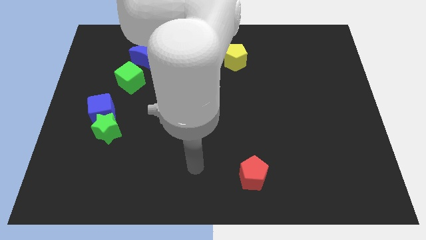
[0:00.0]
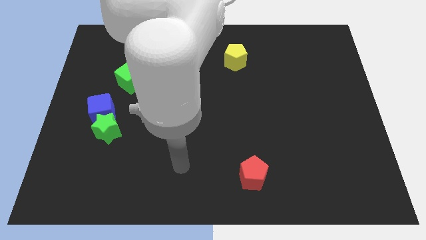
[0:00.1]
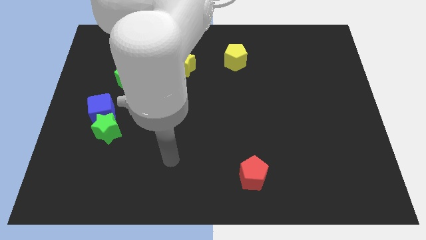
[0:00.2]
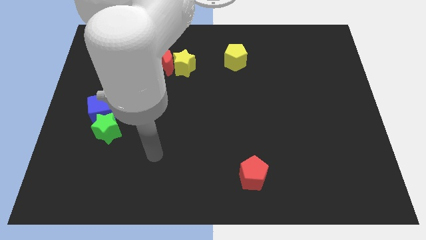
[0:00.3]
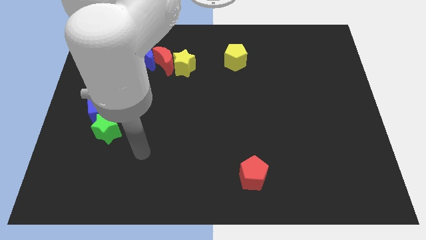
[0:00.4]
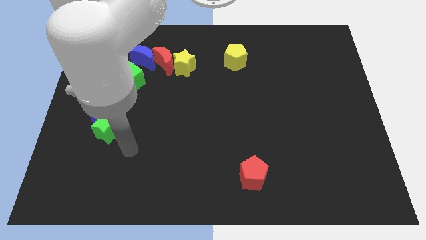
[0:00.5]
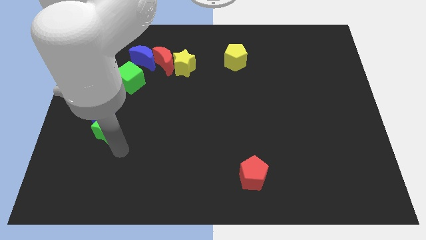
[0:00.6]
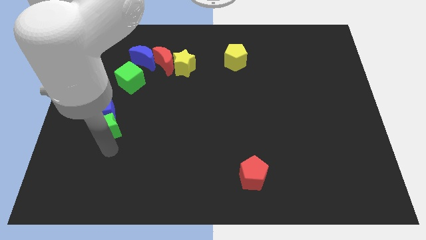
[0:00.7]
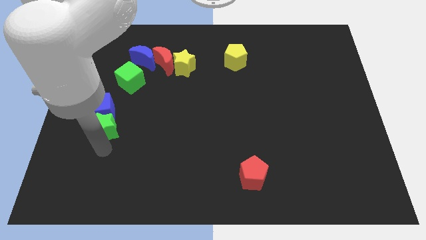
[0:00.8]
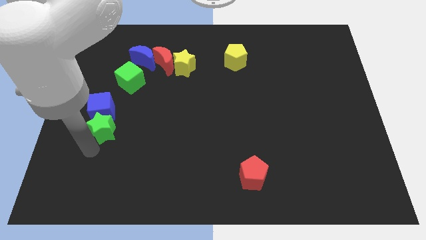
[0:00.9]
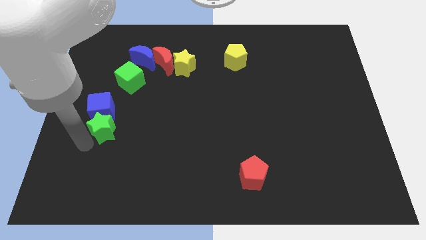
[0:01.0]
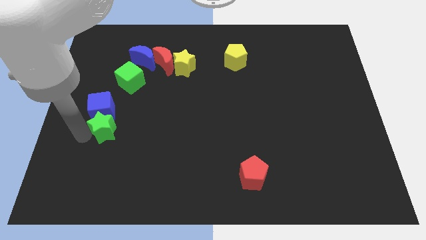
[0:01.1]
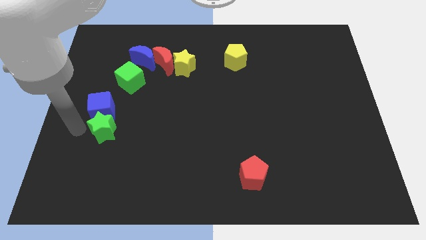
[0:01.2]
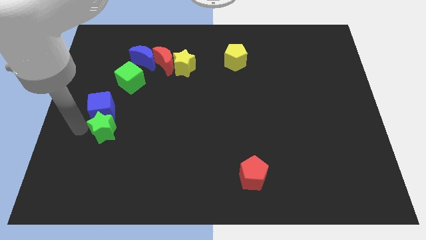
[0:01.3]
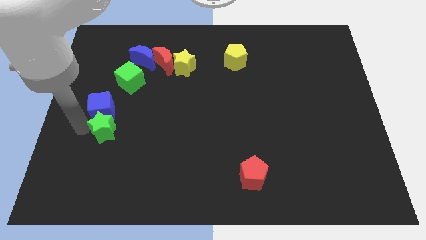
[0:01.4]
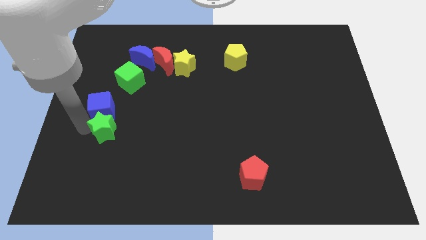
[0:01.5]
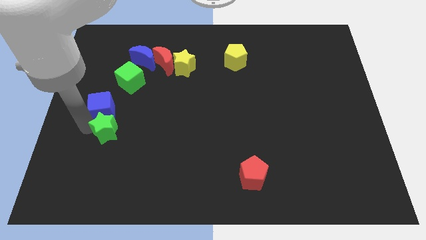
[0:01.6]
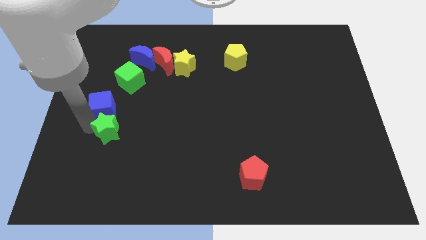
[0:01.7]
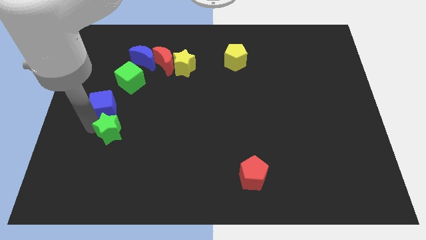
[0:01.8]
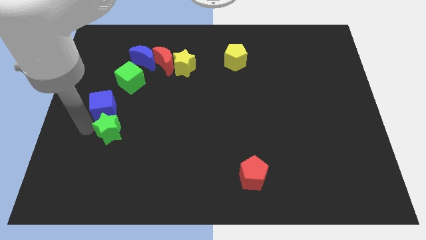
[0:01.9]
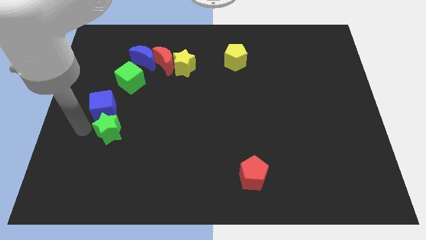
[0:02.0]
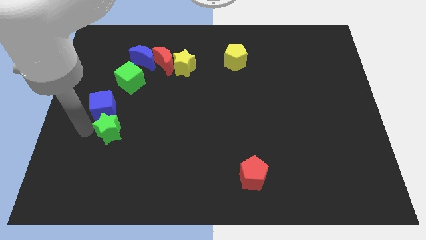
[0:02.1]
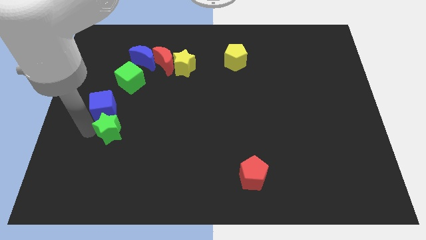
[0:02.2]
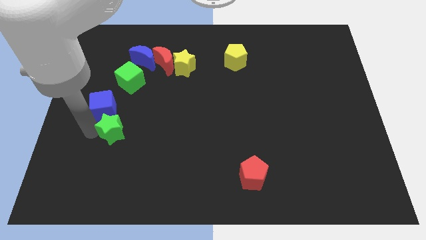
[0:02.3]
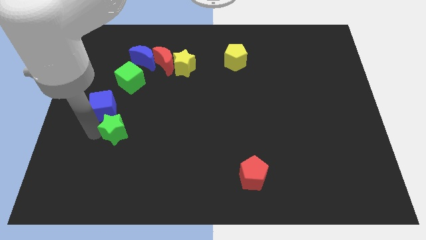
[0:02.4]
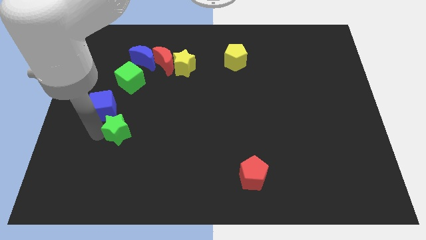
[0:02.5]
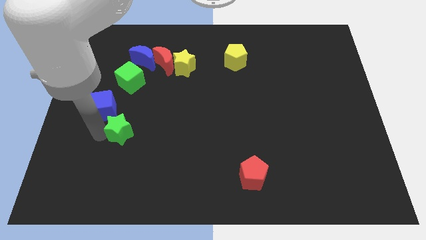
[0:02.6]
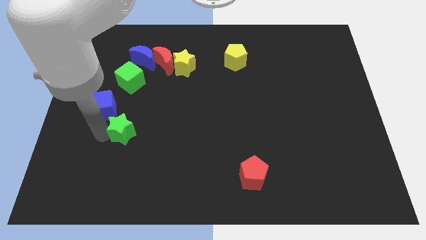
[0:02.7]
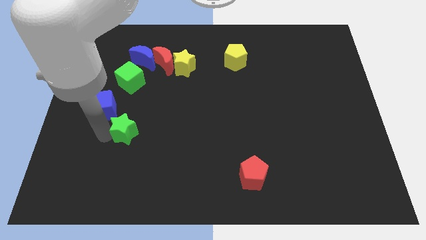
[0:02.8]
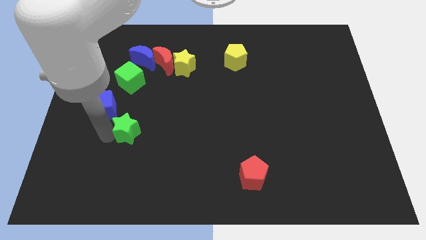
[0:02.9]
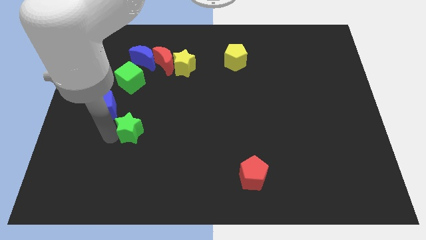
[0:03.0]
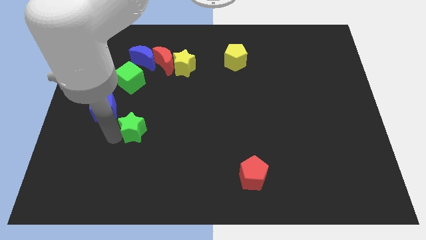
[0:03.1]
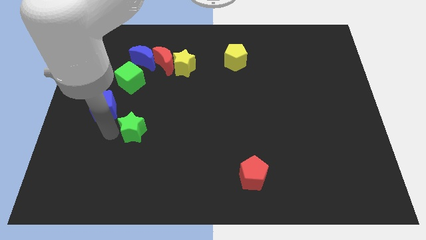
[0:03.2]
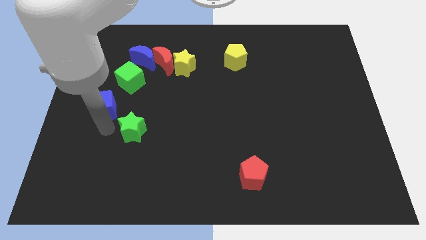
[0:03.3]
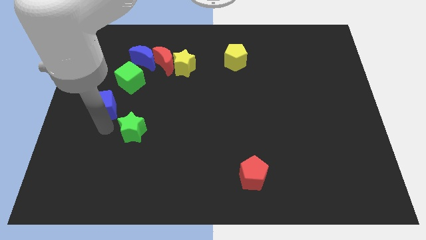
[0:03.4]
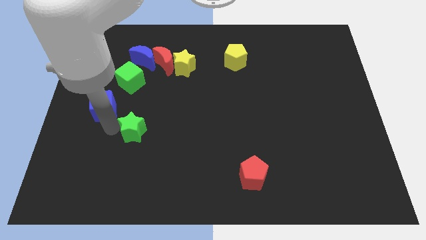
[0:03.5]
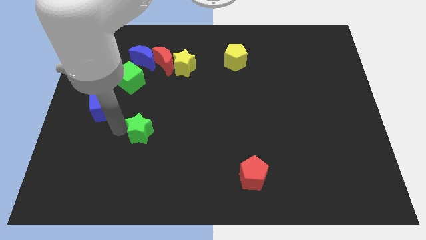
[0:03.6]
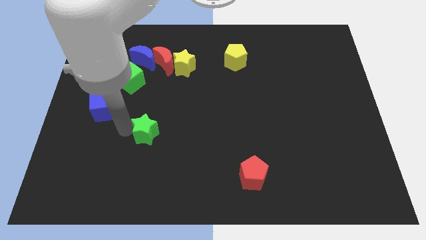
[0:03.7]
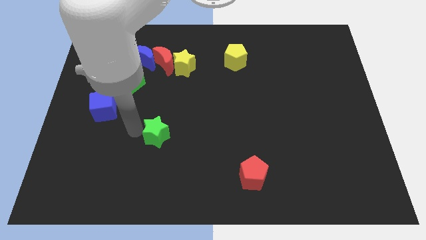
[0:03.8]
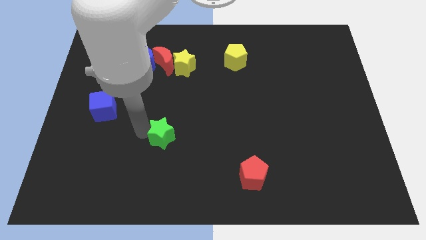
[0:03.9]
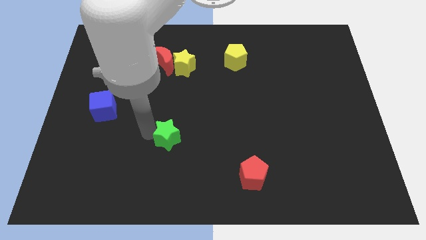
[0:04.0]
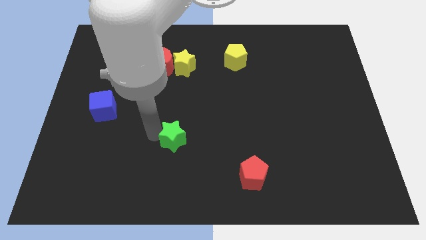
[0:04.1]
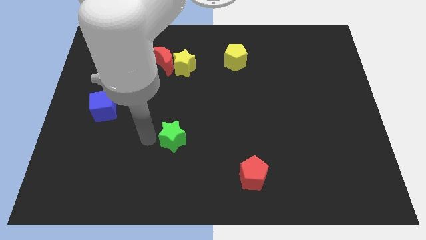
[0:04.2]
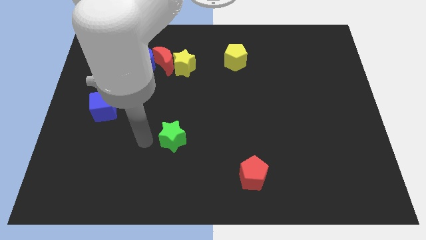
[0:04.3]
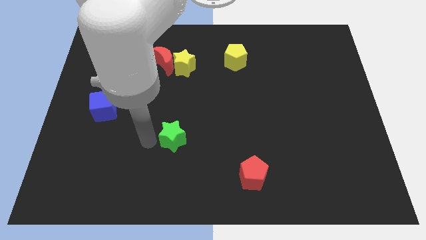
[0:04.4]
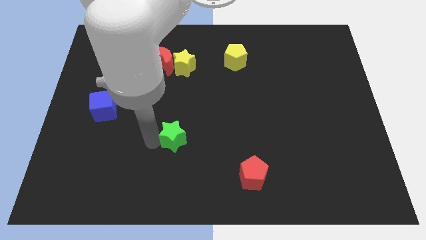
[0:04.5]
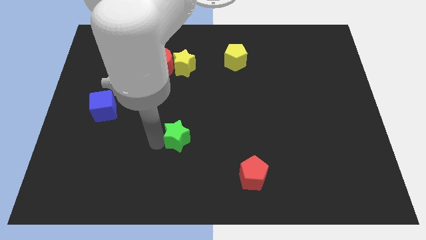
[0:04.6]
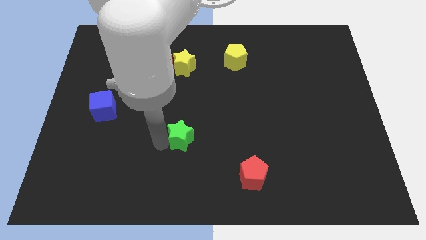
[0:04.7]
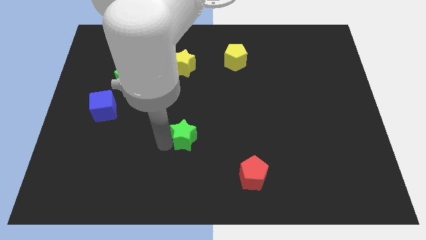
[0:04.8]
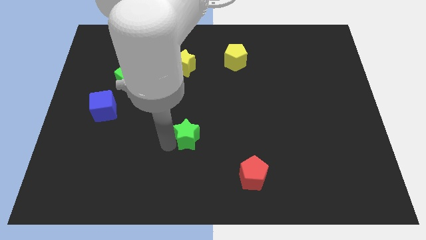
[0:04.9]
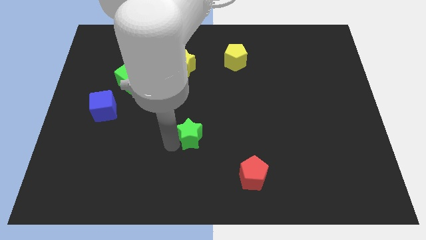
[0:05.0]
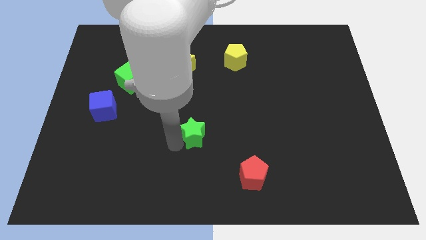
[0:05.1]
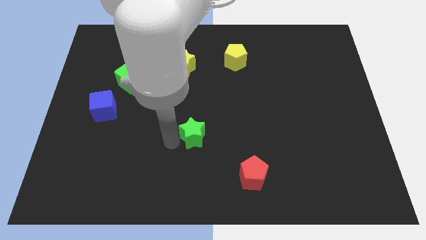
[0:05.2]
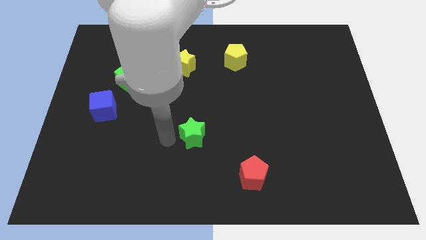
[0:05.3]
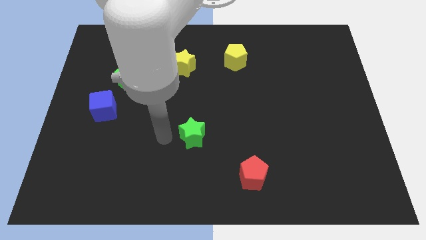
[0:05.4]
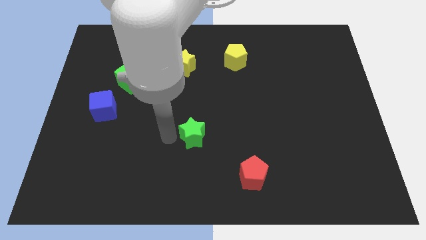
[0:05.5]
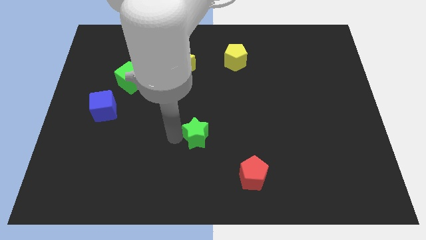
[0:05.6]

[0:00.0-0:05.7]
push the green star to the right

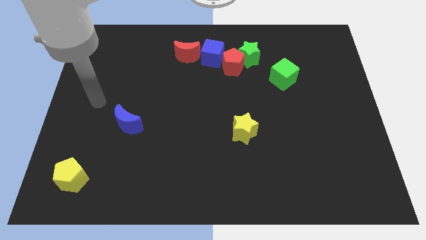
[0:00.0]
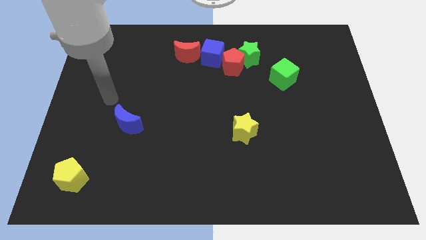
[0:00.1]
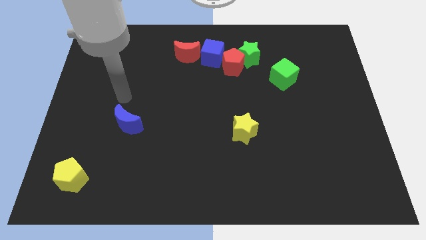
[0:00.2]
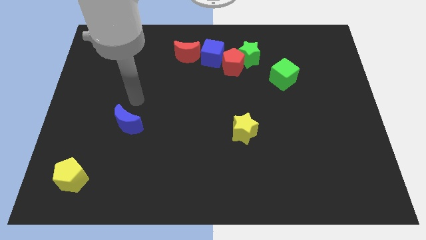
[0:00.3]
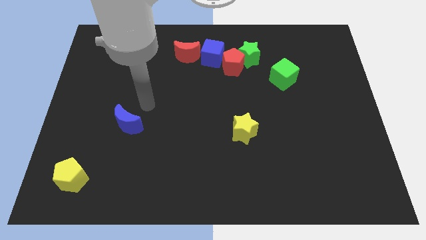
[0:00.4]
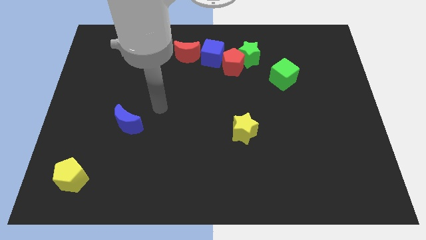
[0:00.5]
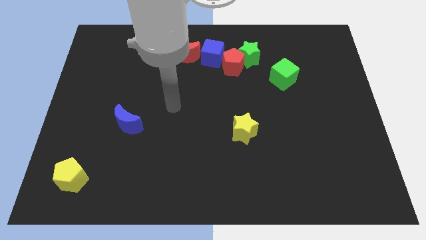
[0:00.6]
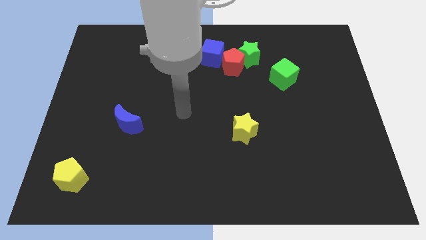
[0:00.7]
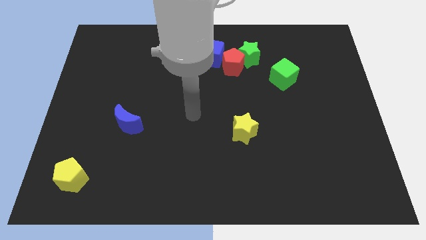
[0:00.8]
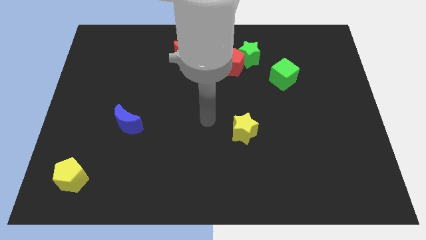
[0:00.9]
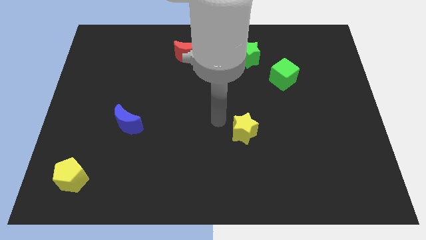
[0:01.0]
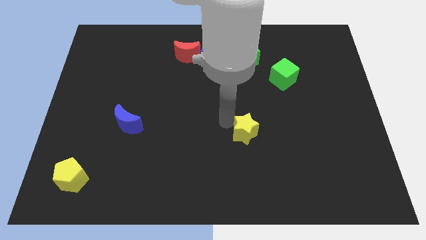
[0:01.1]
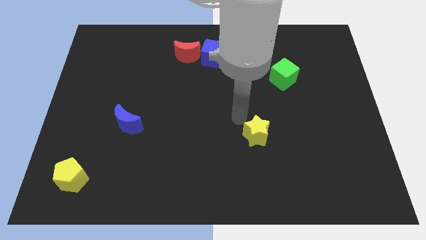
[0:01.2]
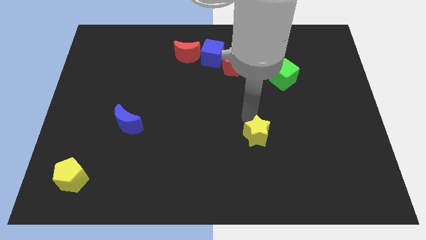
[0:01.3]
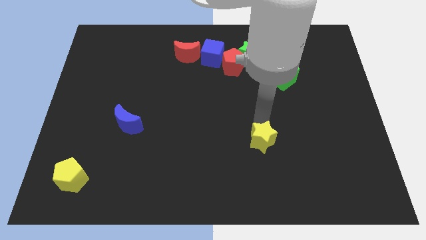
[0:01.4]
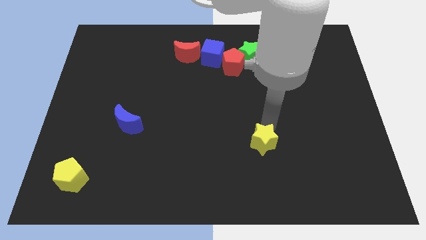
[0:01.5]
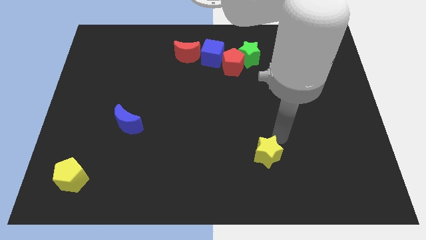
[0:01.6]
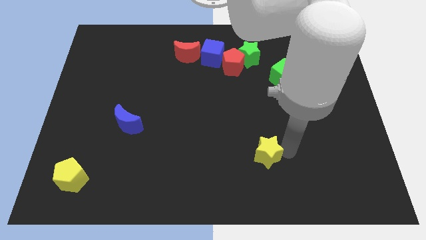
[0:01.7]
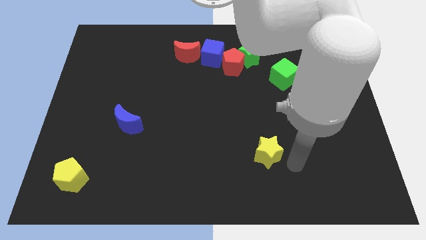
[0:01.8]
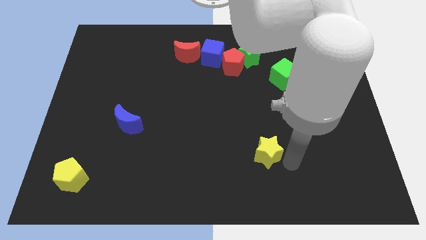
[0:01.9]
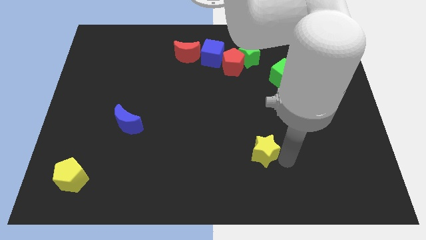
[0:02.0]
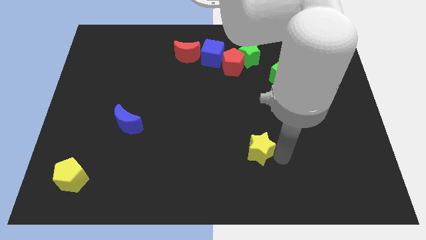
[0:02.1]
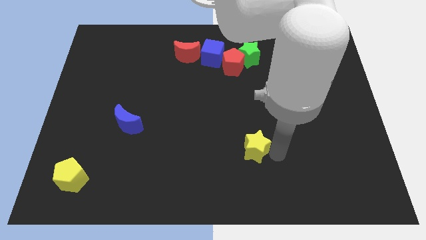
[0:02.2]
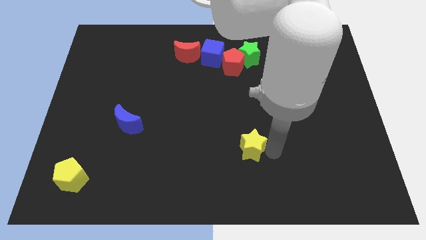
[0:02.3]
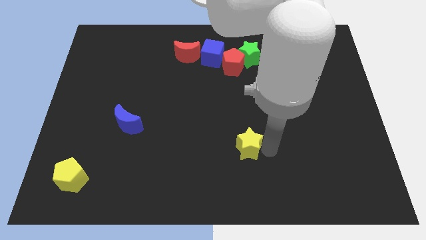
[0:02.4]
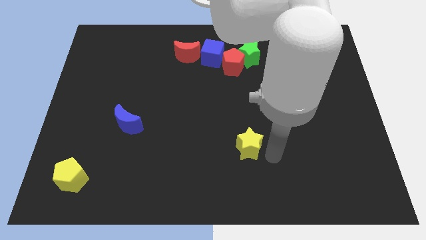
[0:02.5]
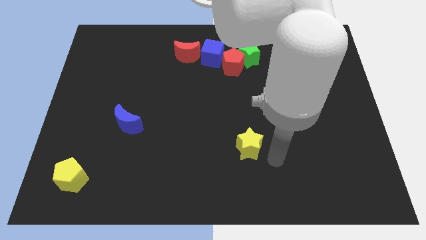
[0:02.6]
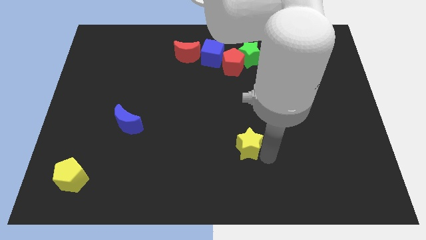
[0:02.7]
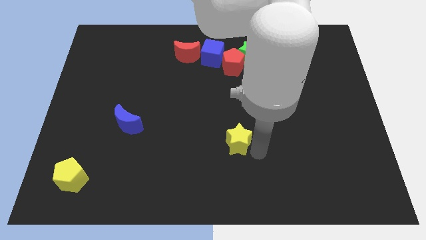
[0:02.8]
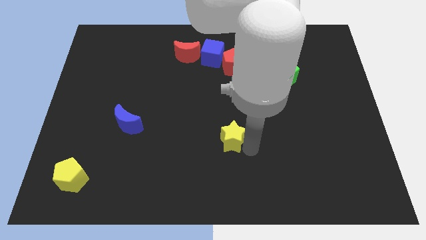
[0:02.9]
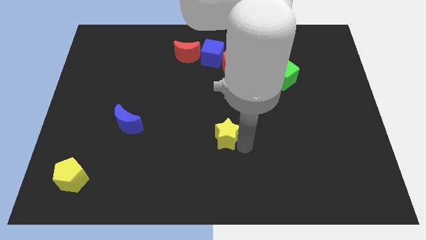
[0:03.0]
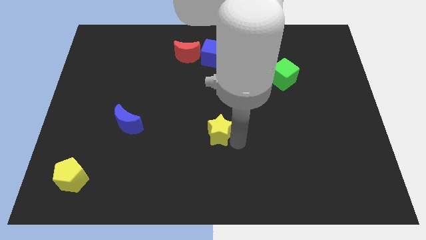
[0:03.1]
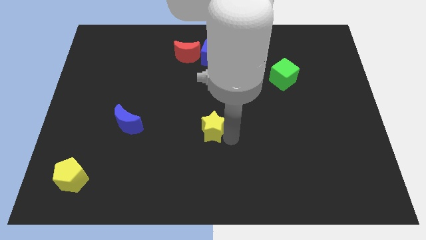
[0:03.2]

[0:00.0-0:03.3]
push the yellow star left slightly
